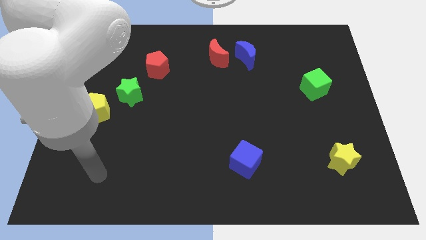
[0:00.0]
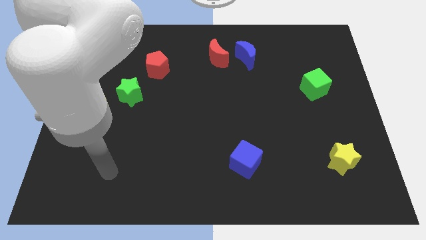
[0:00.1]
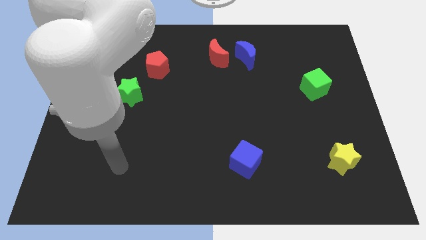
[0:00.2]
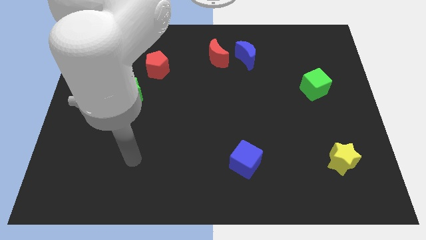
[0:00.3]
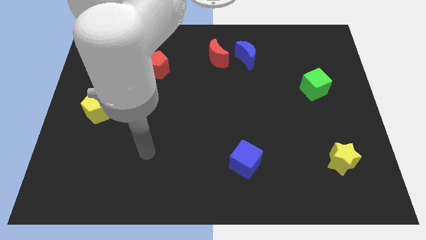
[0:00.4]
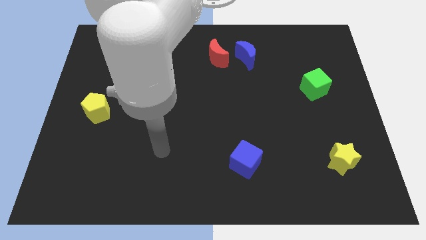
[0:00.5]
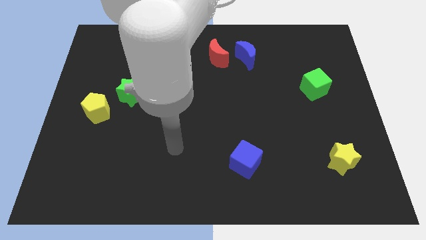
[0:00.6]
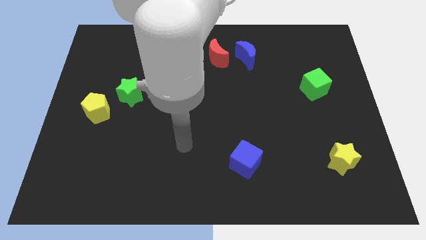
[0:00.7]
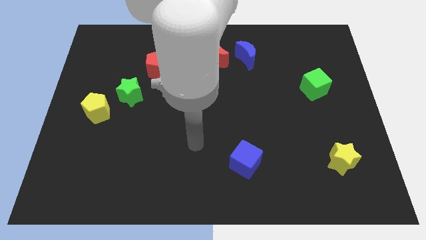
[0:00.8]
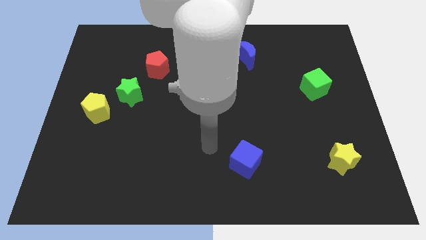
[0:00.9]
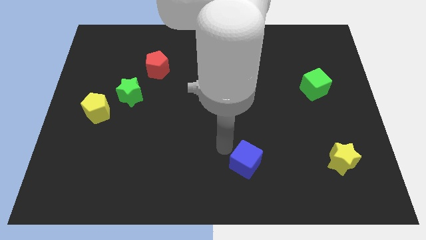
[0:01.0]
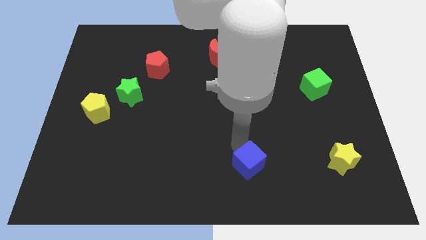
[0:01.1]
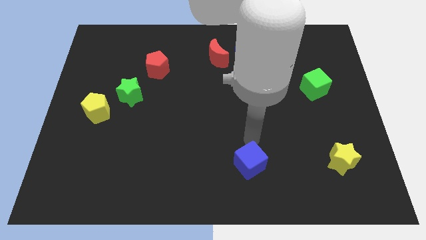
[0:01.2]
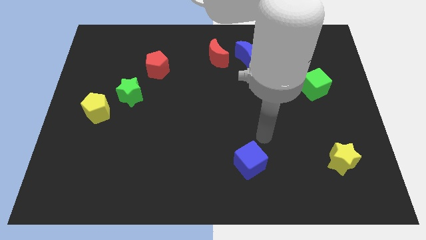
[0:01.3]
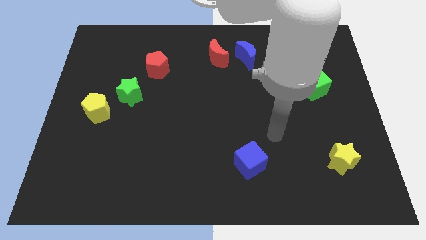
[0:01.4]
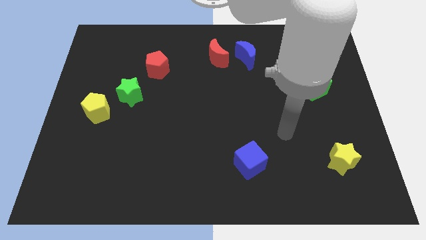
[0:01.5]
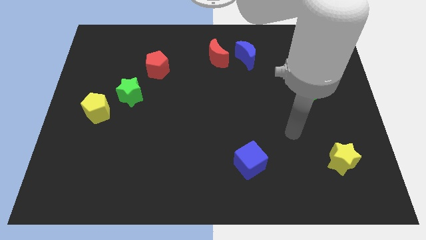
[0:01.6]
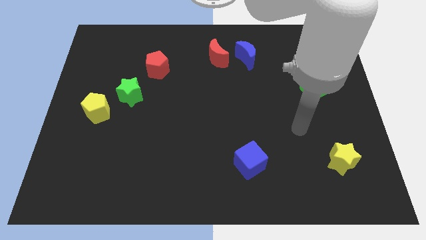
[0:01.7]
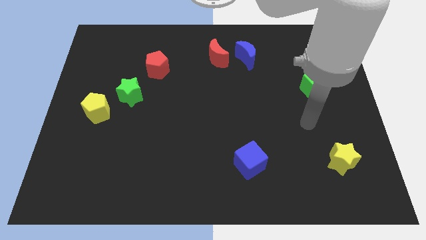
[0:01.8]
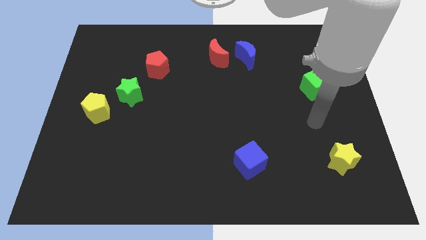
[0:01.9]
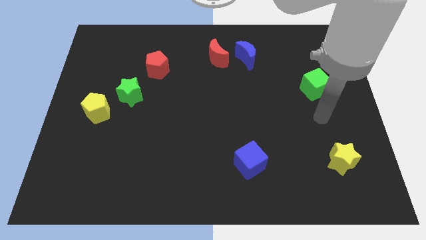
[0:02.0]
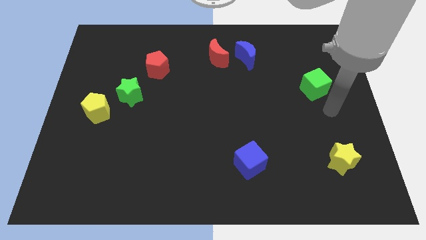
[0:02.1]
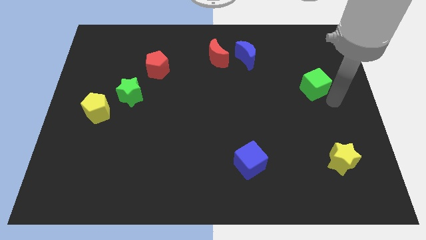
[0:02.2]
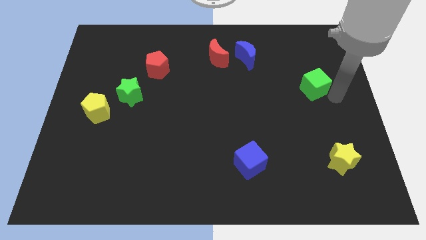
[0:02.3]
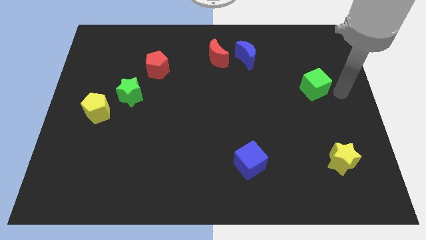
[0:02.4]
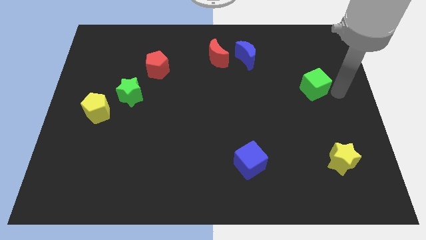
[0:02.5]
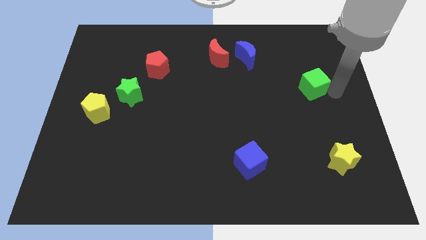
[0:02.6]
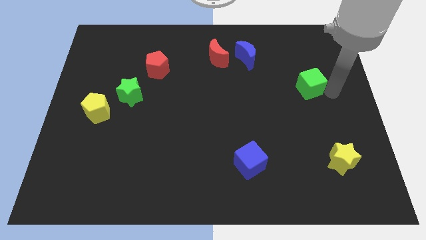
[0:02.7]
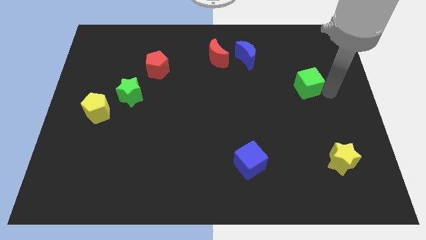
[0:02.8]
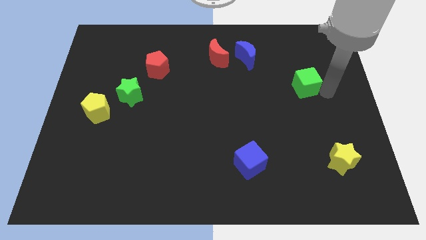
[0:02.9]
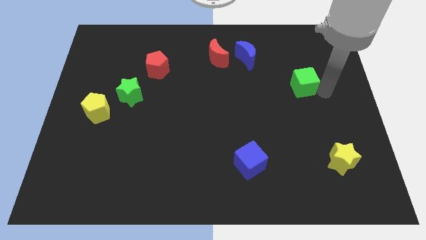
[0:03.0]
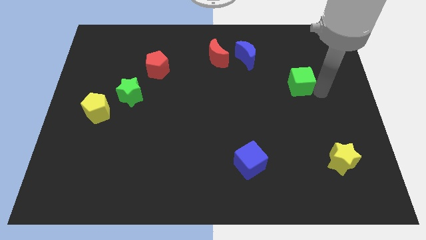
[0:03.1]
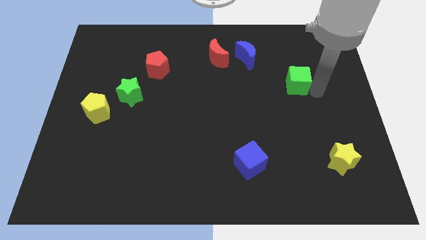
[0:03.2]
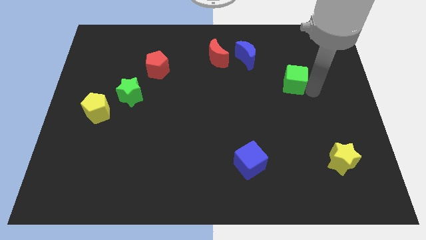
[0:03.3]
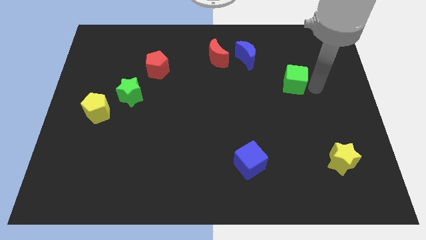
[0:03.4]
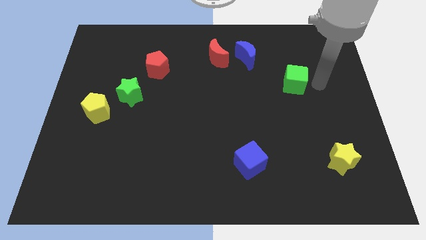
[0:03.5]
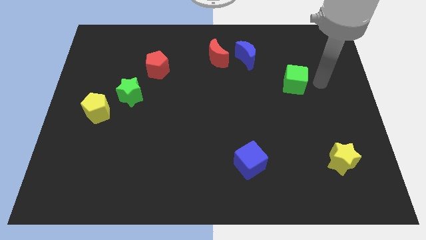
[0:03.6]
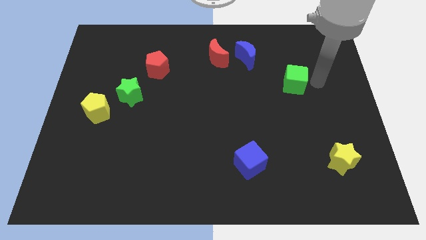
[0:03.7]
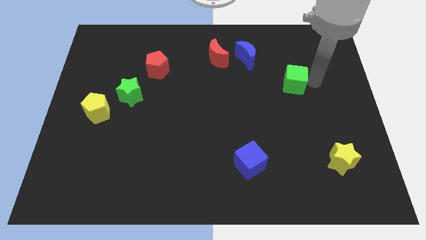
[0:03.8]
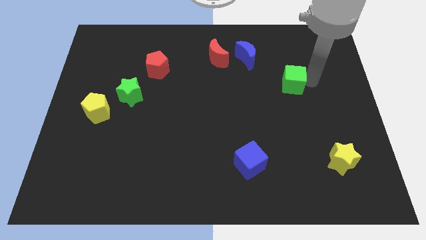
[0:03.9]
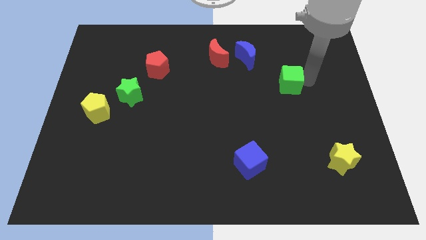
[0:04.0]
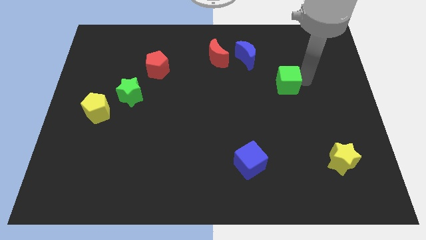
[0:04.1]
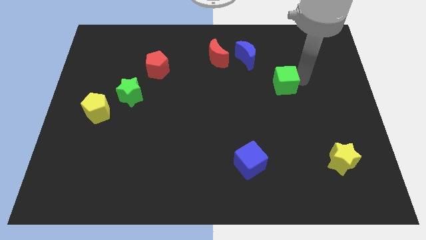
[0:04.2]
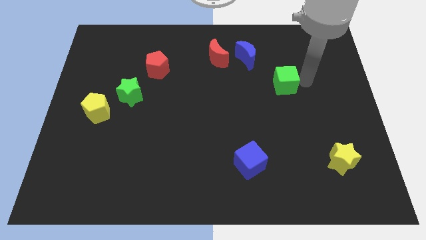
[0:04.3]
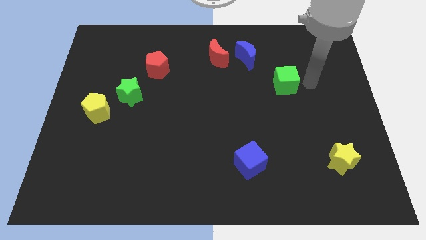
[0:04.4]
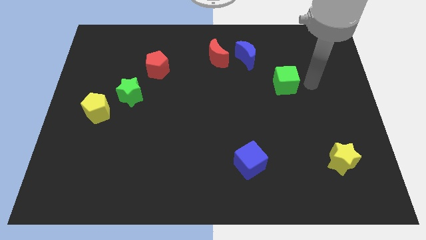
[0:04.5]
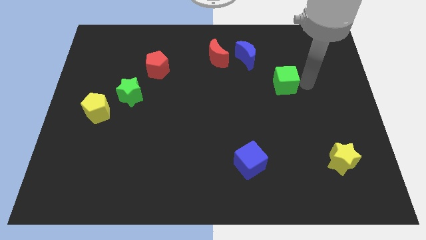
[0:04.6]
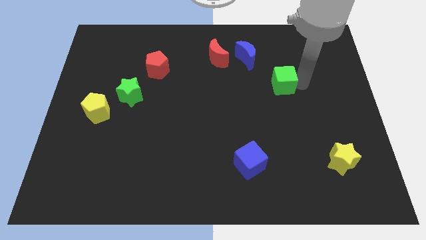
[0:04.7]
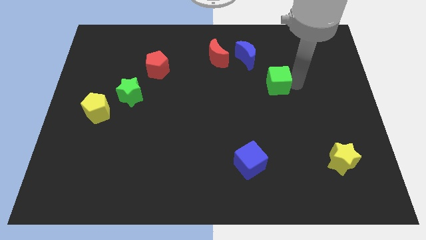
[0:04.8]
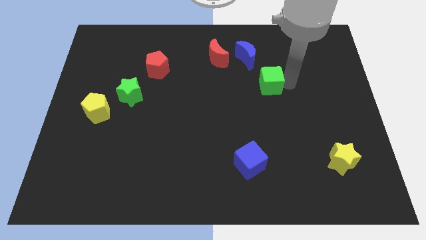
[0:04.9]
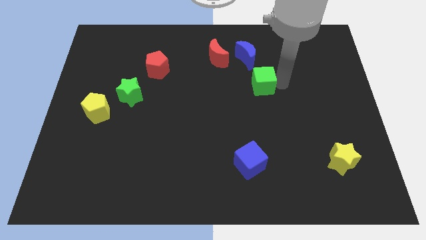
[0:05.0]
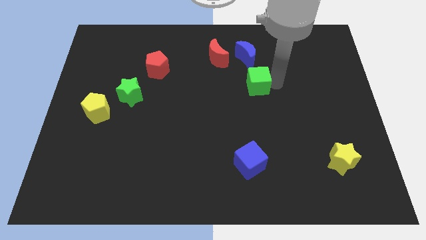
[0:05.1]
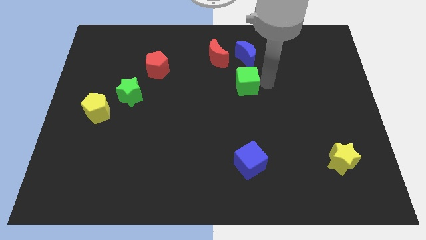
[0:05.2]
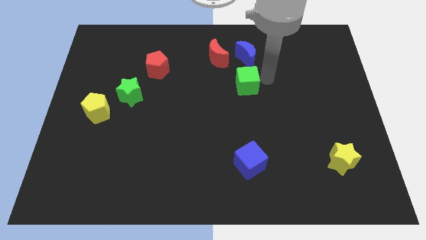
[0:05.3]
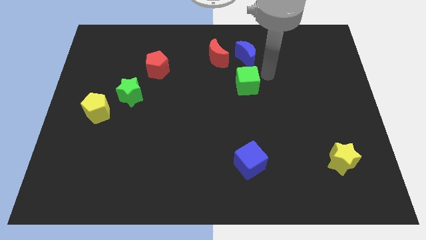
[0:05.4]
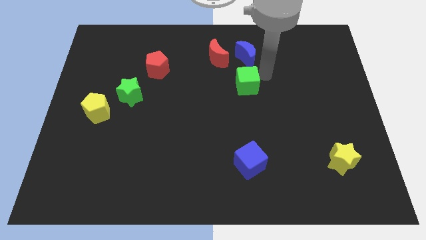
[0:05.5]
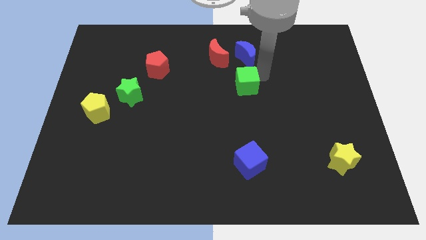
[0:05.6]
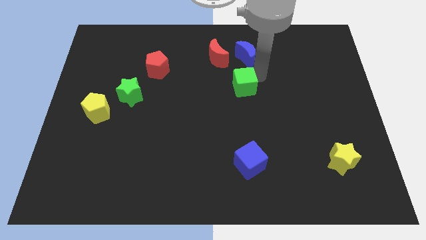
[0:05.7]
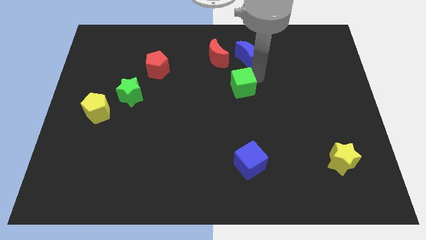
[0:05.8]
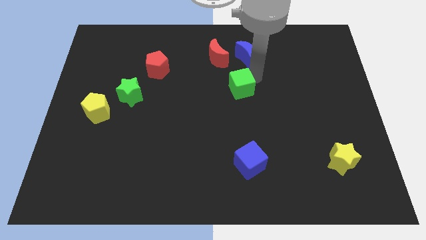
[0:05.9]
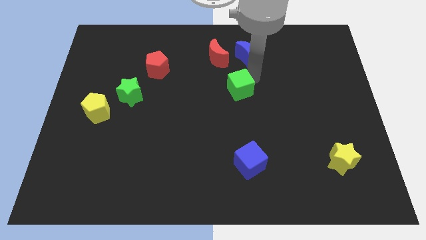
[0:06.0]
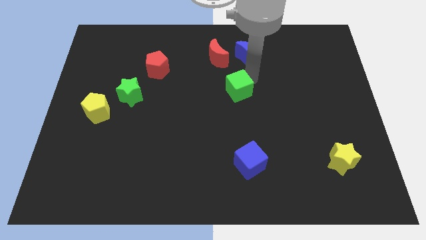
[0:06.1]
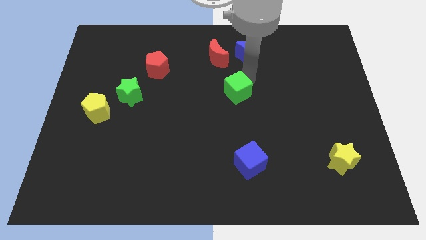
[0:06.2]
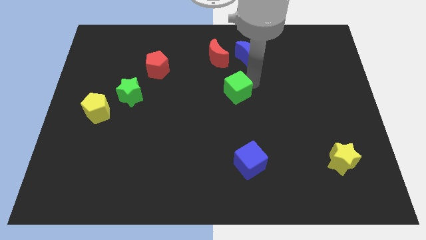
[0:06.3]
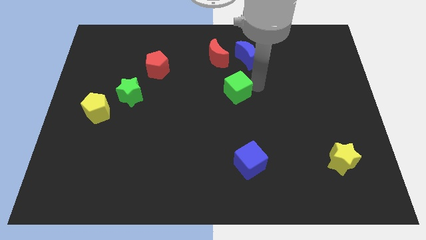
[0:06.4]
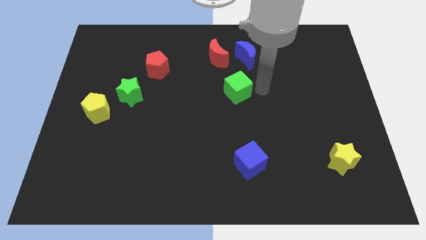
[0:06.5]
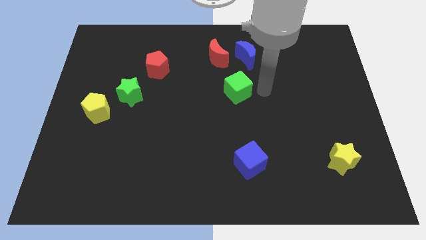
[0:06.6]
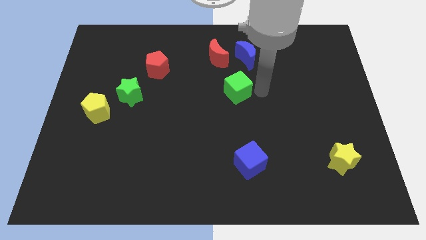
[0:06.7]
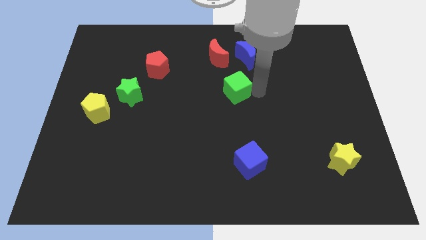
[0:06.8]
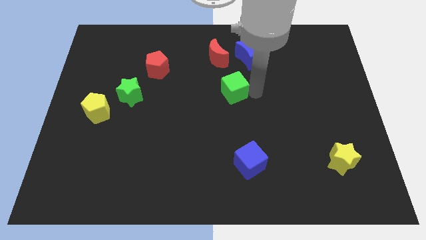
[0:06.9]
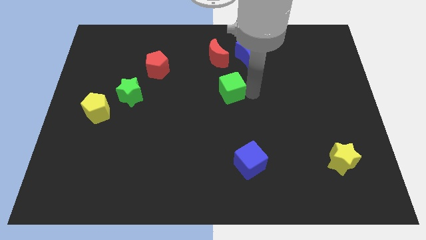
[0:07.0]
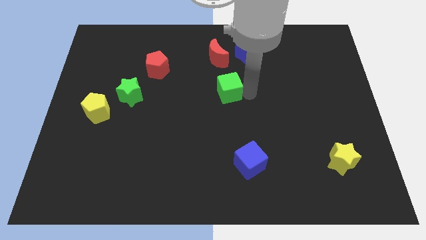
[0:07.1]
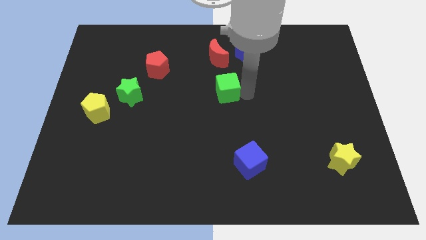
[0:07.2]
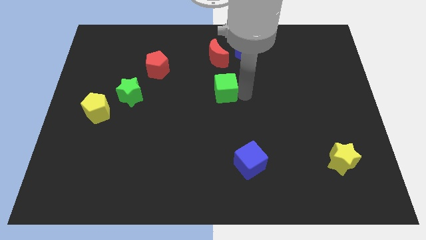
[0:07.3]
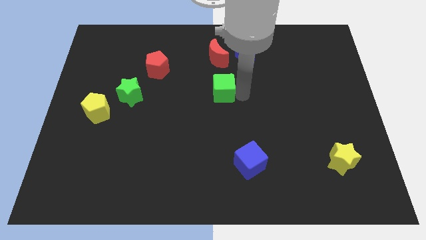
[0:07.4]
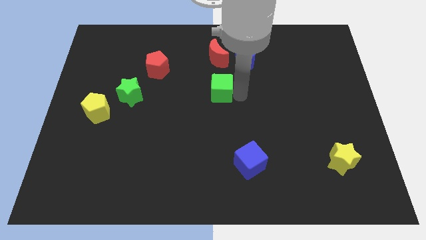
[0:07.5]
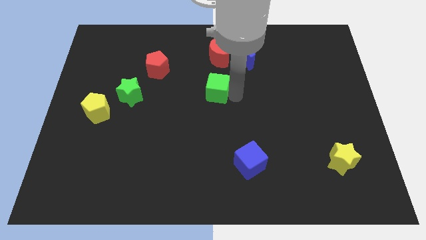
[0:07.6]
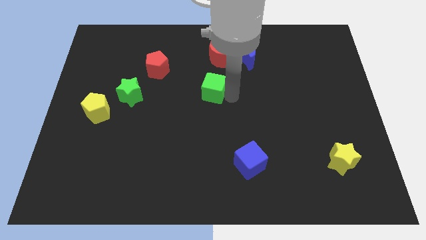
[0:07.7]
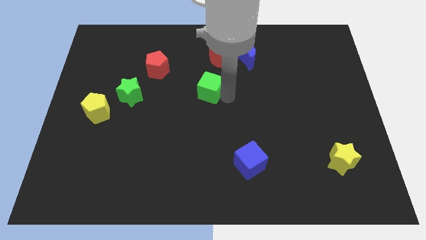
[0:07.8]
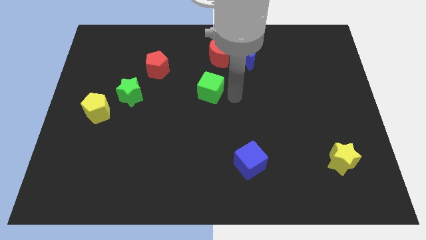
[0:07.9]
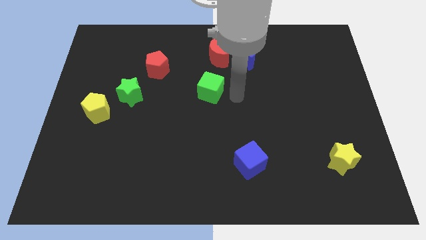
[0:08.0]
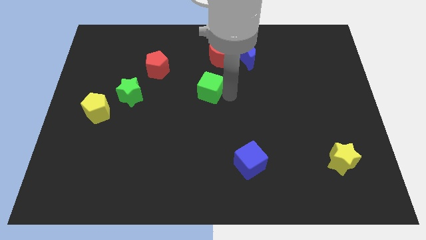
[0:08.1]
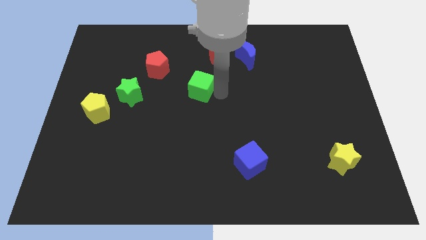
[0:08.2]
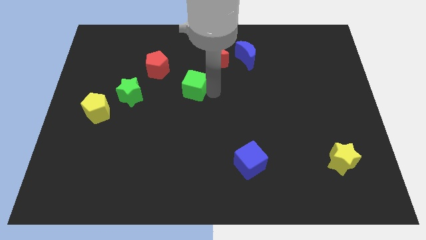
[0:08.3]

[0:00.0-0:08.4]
slide the green cube diagonally down and to the right of the red pentagon
